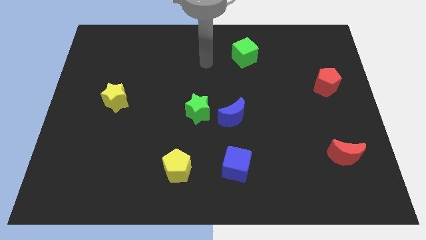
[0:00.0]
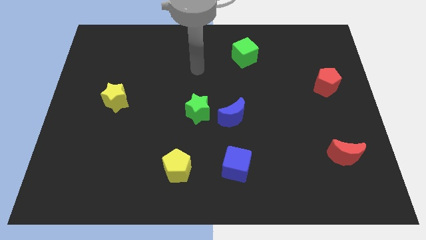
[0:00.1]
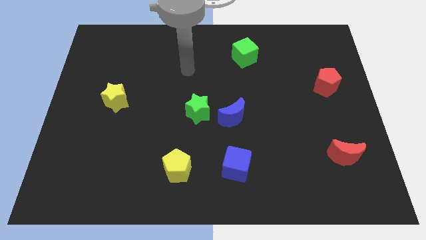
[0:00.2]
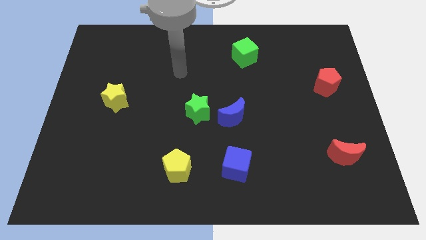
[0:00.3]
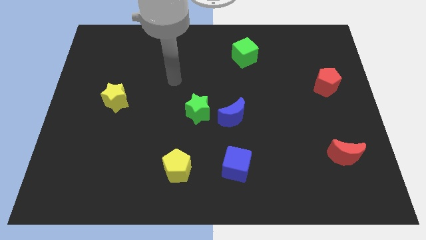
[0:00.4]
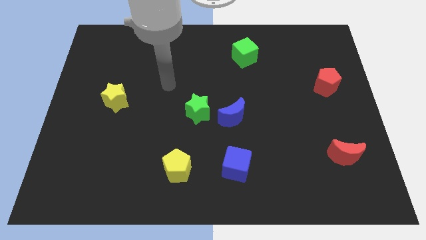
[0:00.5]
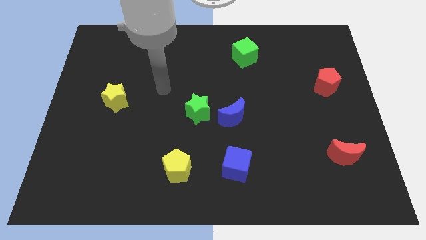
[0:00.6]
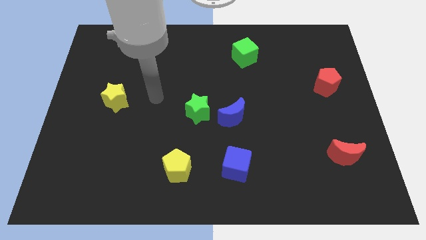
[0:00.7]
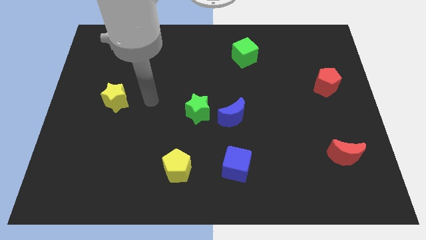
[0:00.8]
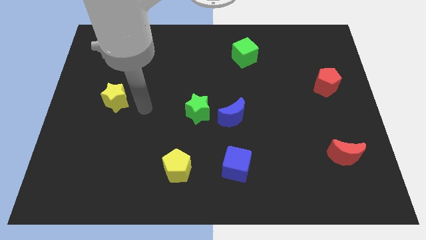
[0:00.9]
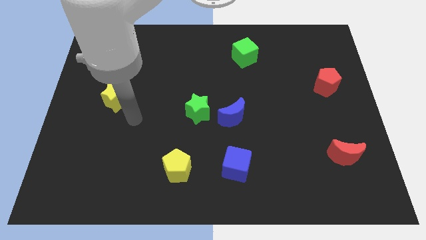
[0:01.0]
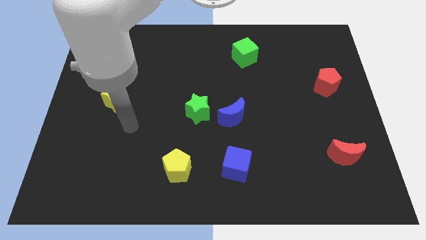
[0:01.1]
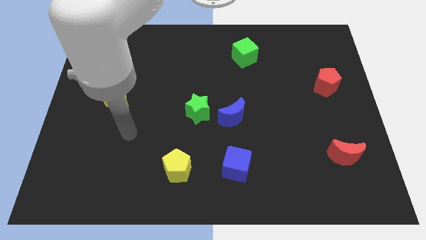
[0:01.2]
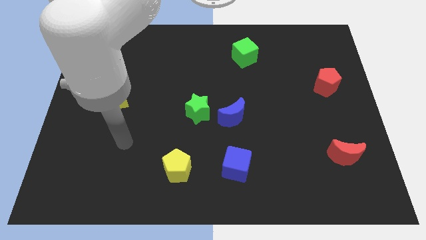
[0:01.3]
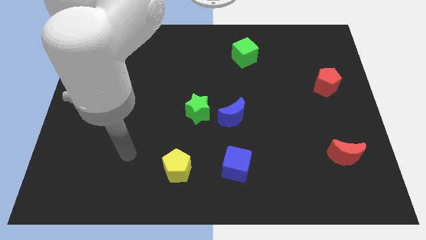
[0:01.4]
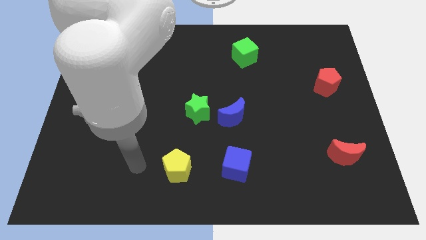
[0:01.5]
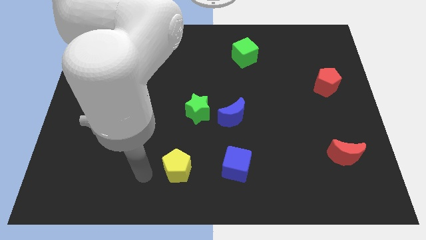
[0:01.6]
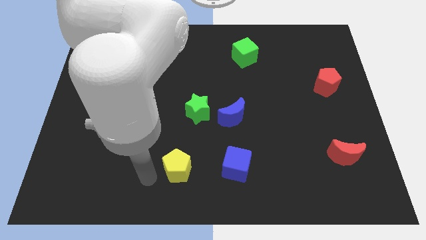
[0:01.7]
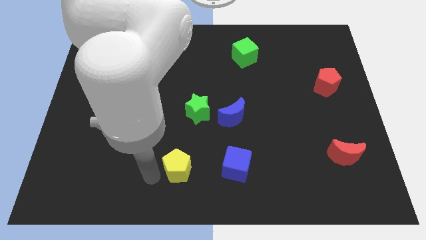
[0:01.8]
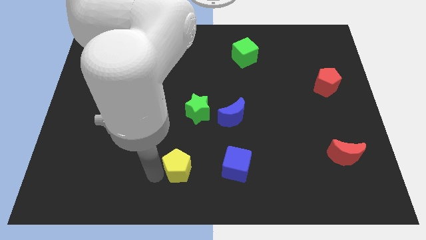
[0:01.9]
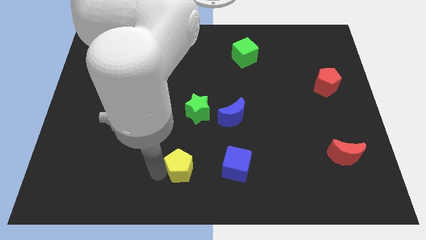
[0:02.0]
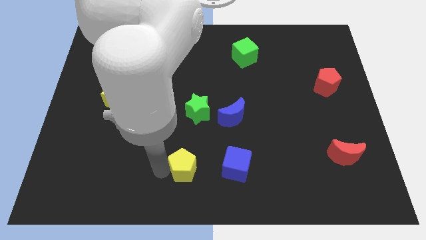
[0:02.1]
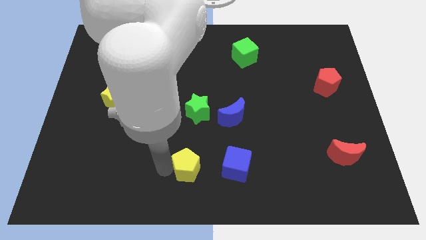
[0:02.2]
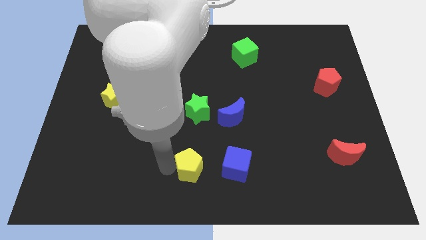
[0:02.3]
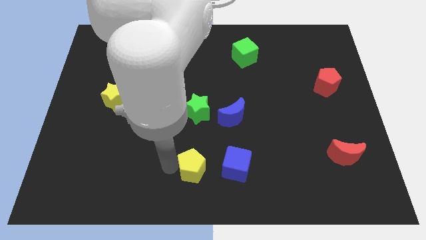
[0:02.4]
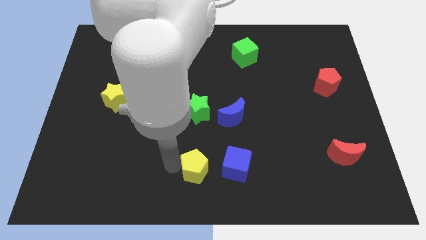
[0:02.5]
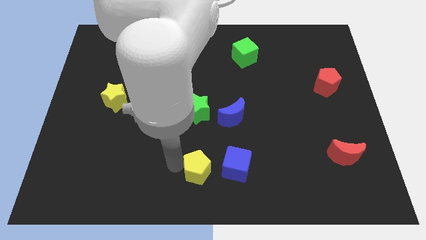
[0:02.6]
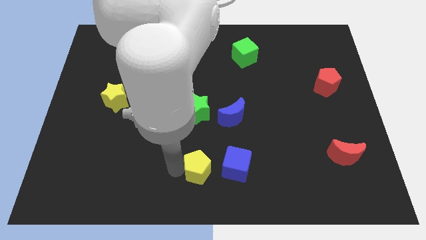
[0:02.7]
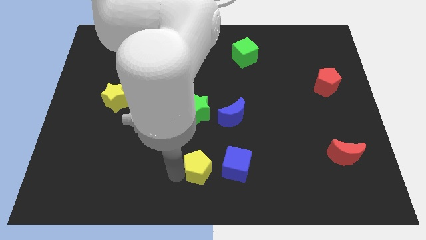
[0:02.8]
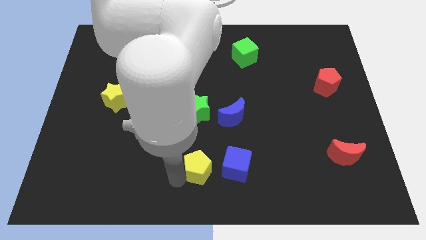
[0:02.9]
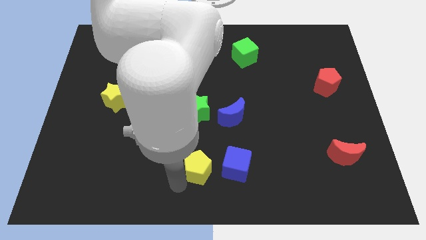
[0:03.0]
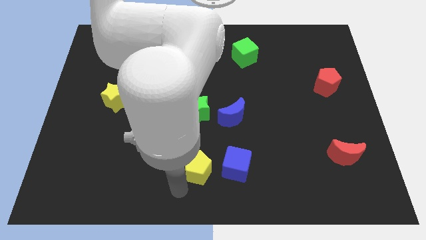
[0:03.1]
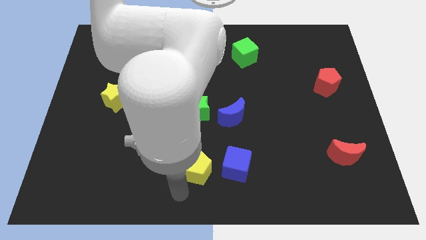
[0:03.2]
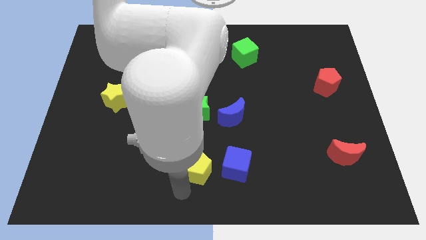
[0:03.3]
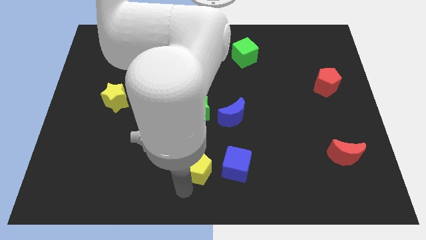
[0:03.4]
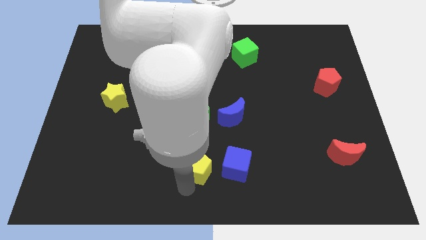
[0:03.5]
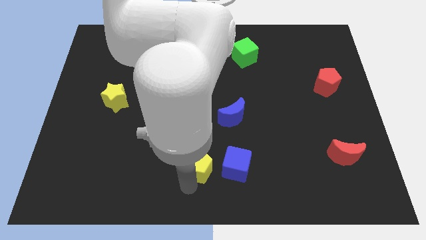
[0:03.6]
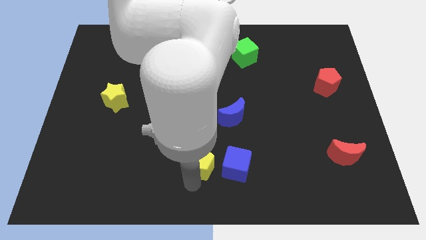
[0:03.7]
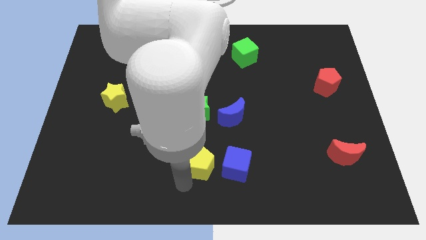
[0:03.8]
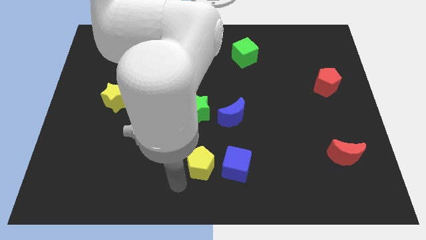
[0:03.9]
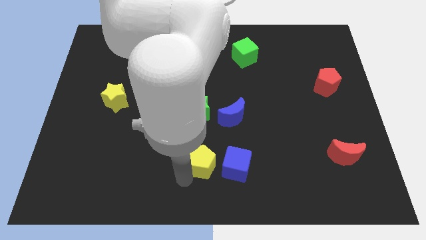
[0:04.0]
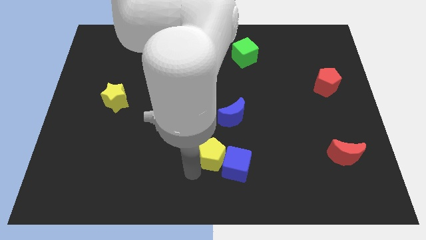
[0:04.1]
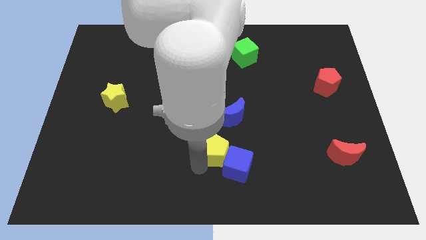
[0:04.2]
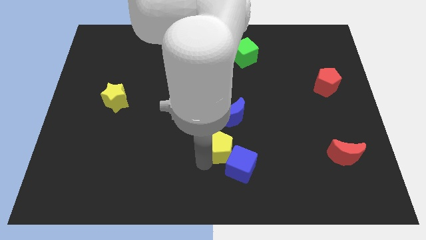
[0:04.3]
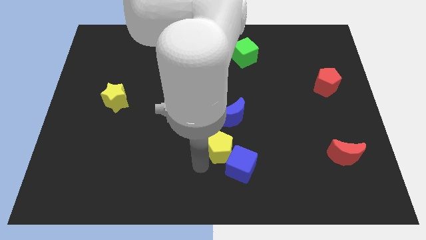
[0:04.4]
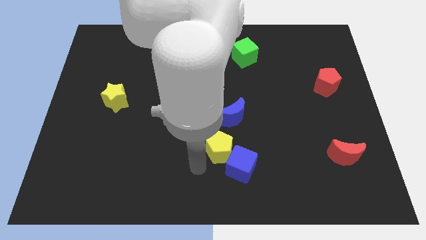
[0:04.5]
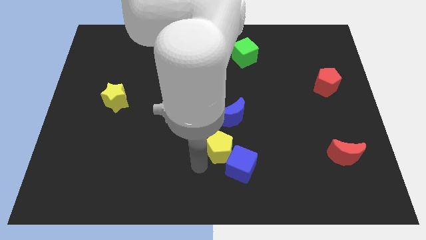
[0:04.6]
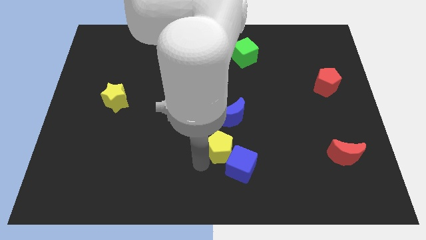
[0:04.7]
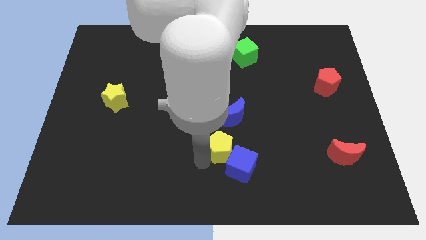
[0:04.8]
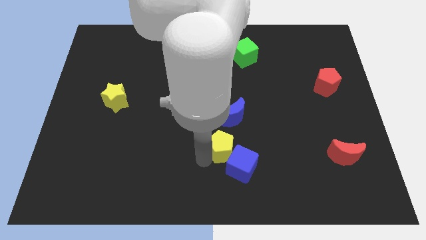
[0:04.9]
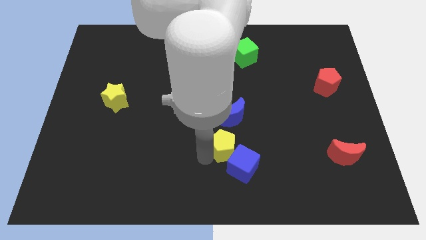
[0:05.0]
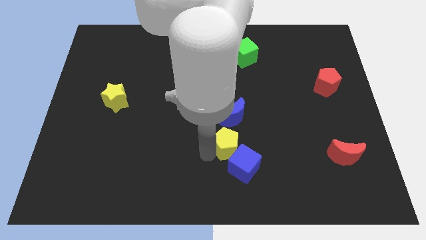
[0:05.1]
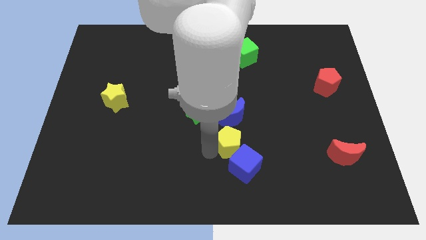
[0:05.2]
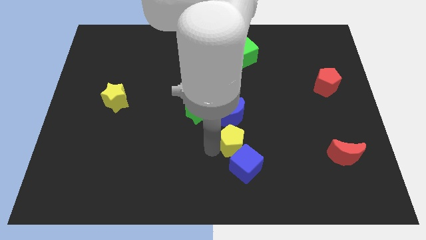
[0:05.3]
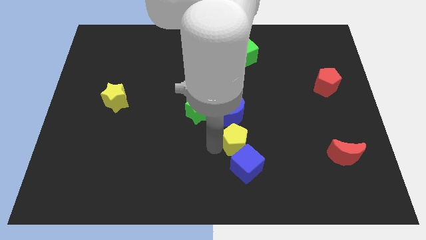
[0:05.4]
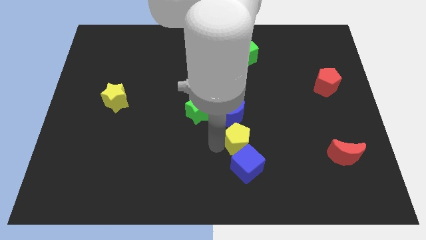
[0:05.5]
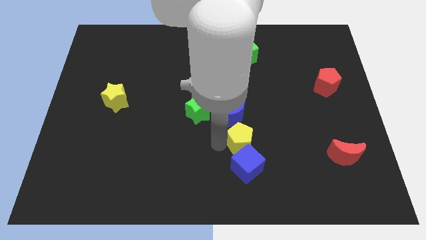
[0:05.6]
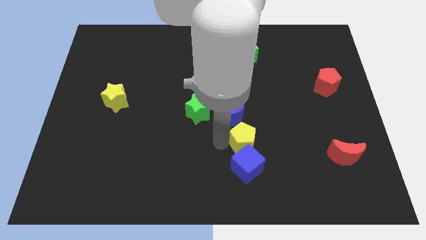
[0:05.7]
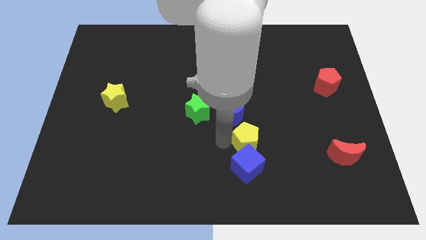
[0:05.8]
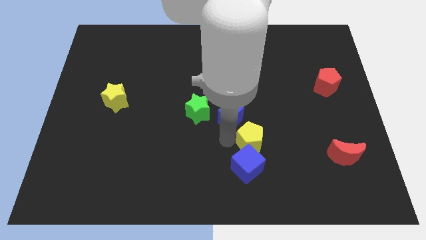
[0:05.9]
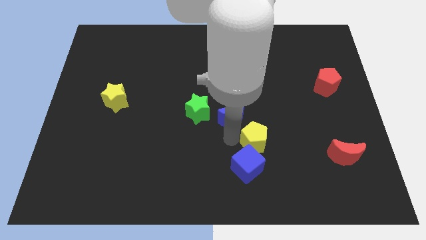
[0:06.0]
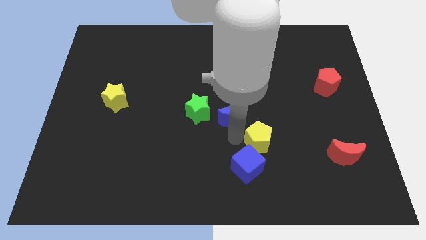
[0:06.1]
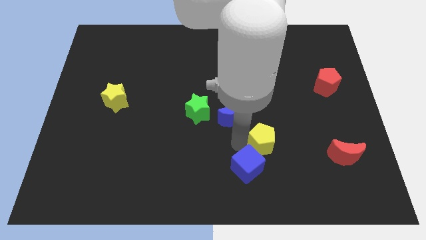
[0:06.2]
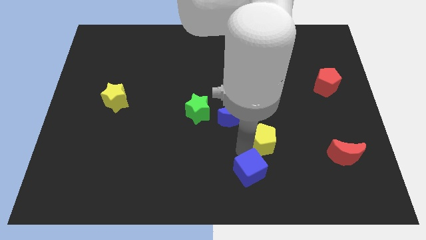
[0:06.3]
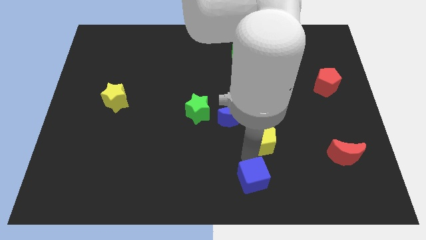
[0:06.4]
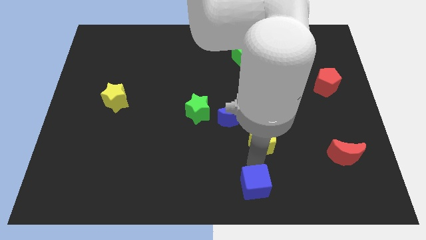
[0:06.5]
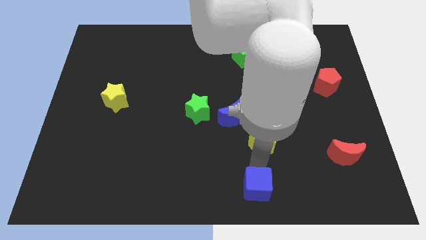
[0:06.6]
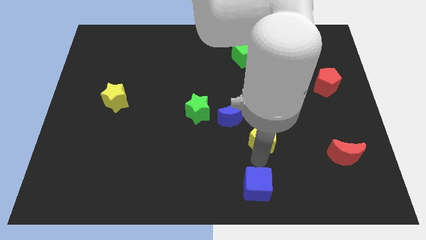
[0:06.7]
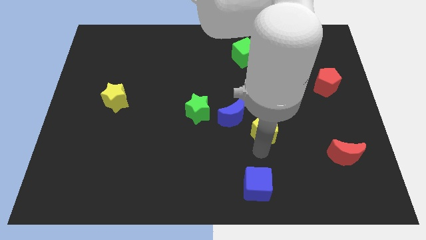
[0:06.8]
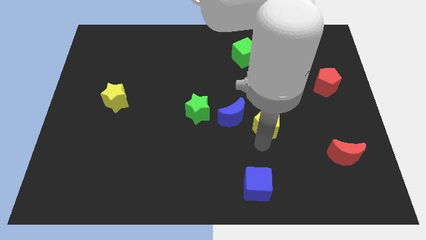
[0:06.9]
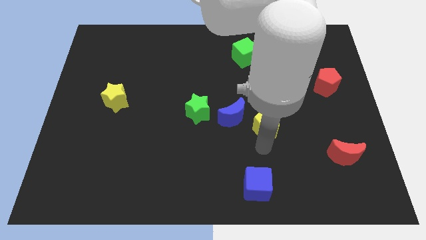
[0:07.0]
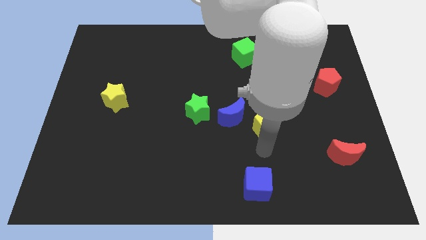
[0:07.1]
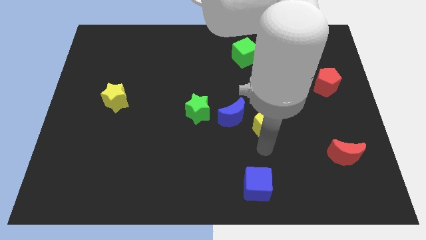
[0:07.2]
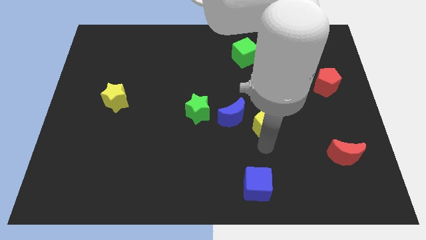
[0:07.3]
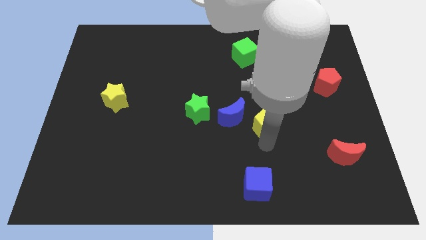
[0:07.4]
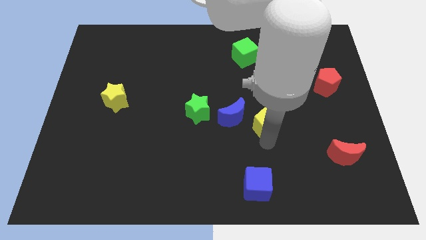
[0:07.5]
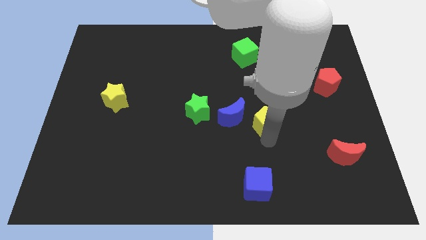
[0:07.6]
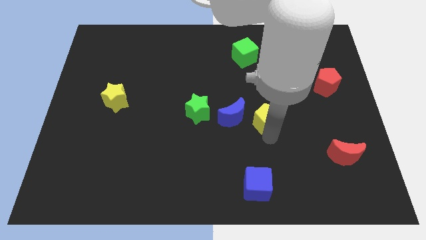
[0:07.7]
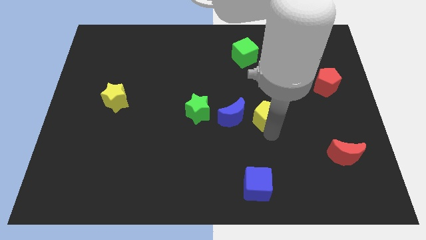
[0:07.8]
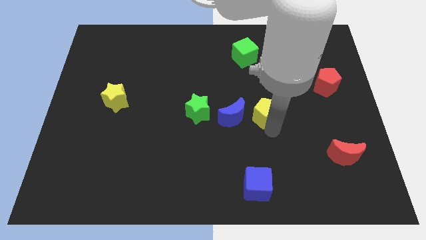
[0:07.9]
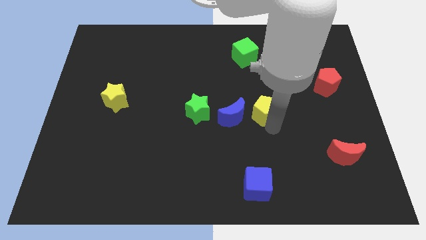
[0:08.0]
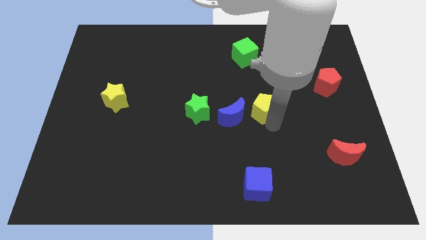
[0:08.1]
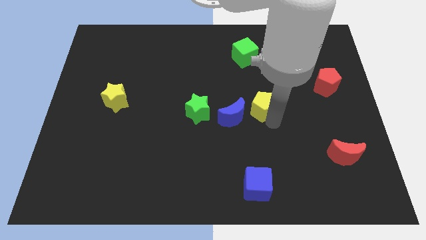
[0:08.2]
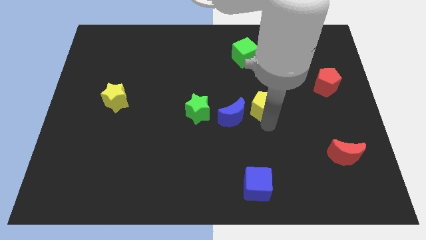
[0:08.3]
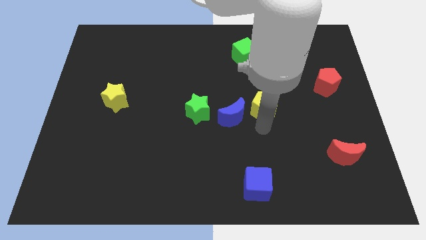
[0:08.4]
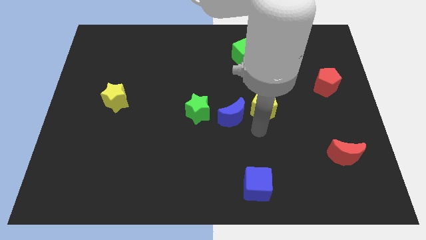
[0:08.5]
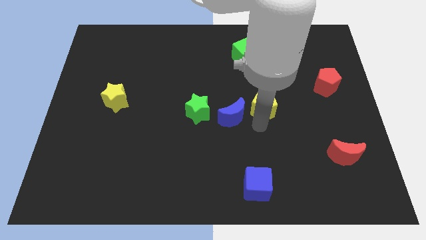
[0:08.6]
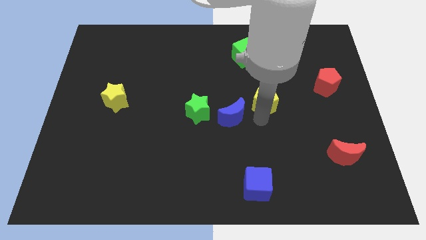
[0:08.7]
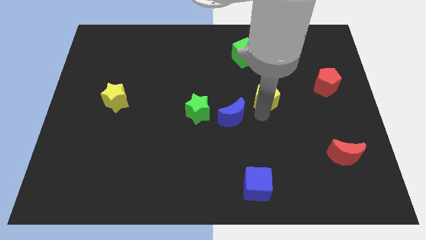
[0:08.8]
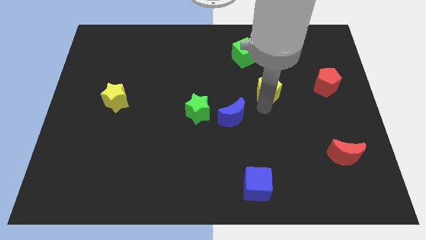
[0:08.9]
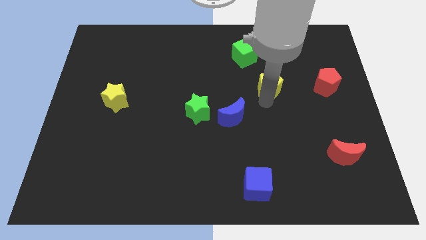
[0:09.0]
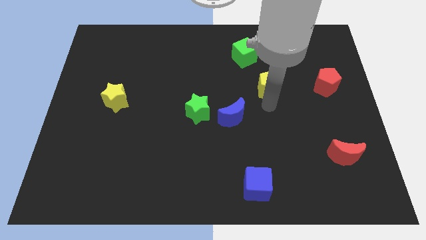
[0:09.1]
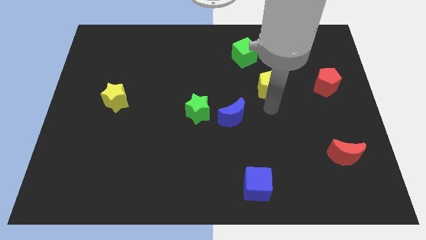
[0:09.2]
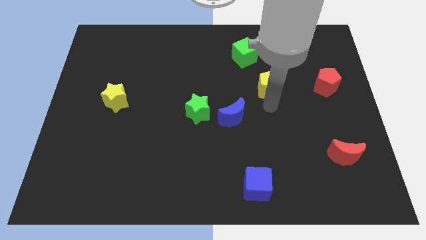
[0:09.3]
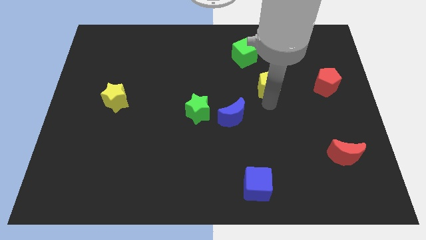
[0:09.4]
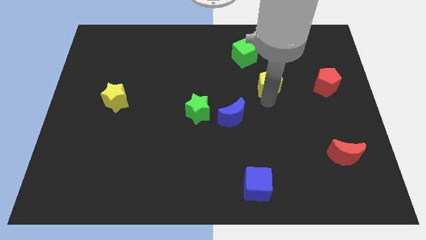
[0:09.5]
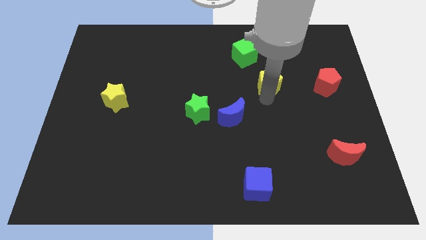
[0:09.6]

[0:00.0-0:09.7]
slide the yellow pentagon to the bottom right of the green cube
